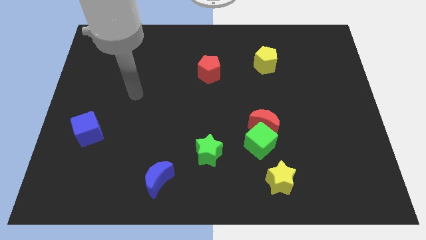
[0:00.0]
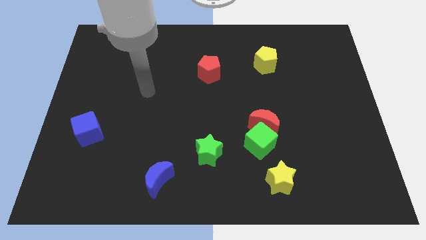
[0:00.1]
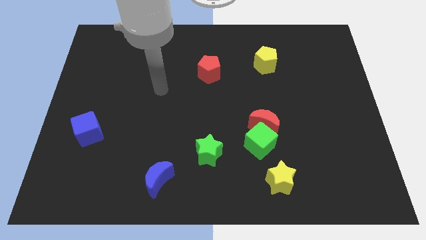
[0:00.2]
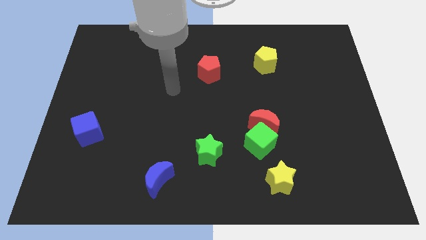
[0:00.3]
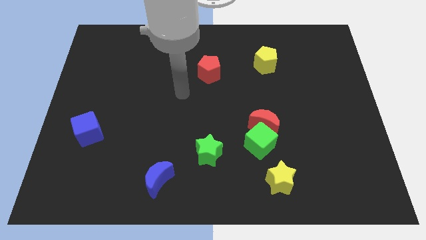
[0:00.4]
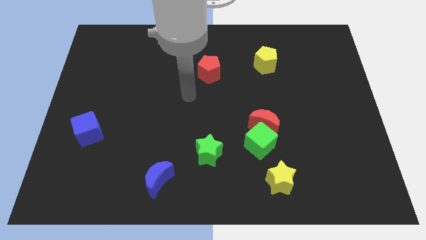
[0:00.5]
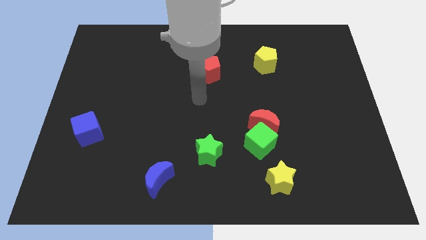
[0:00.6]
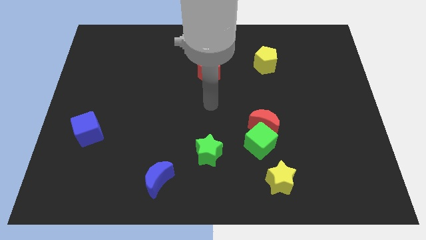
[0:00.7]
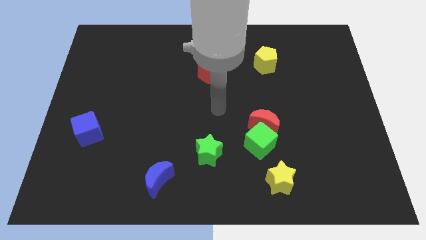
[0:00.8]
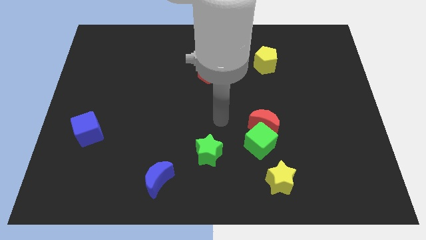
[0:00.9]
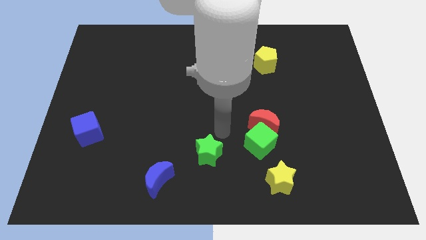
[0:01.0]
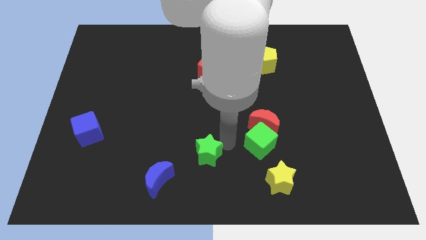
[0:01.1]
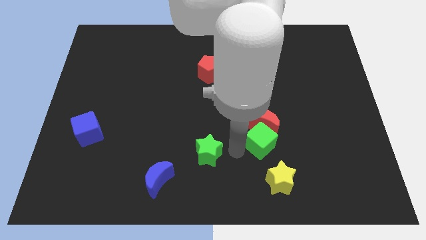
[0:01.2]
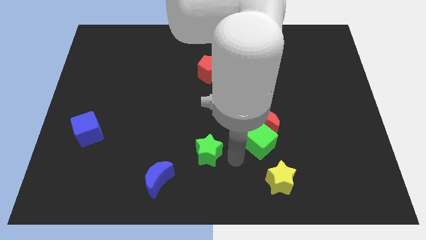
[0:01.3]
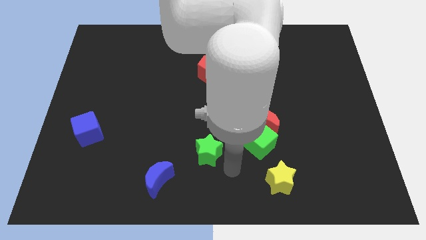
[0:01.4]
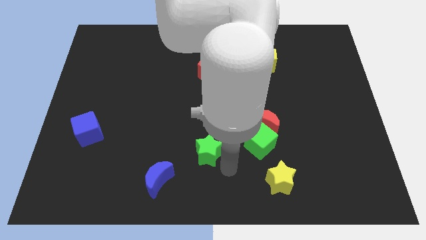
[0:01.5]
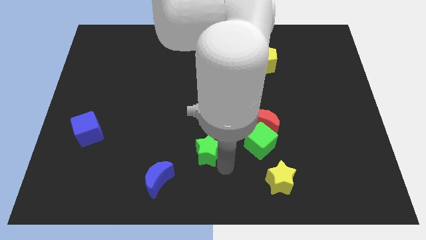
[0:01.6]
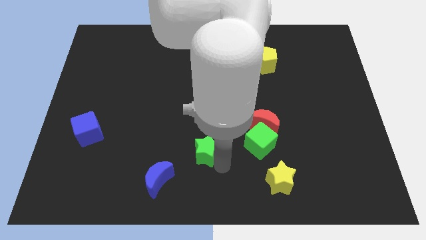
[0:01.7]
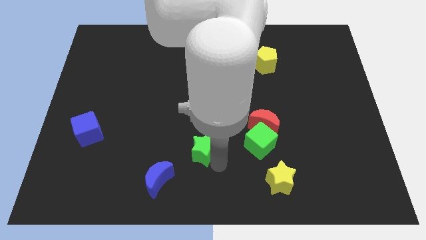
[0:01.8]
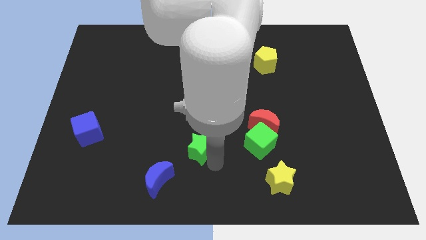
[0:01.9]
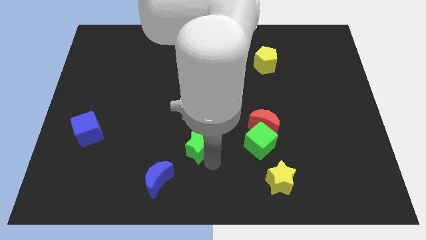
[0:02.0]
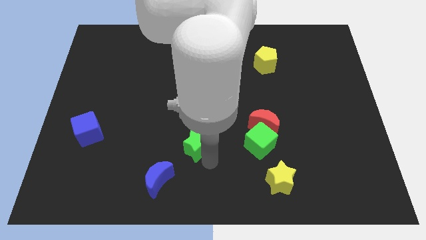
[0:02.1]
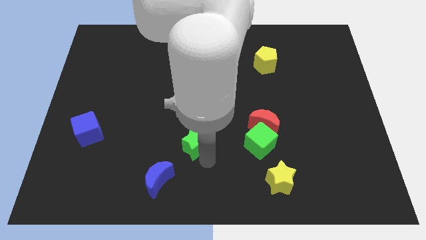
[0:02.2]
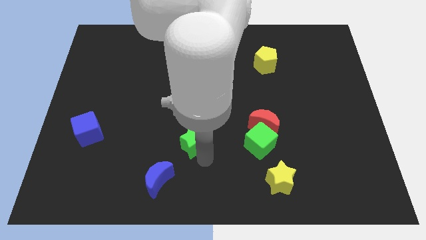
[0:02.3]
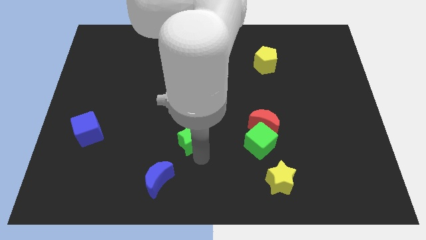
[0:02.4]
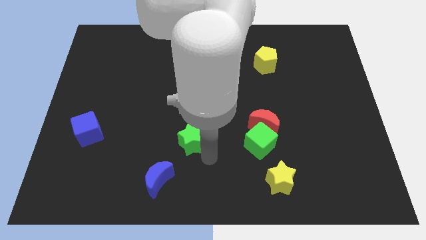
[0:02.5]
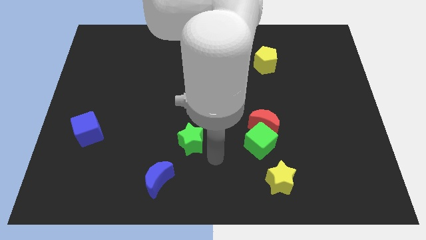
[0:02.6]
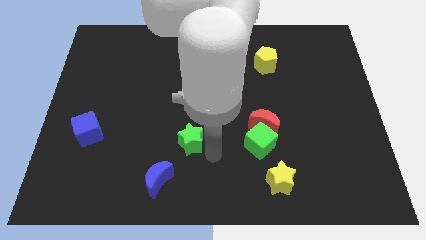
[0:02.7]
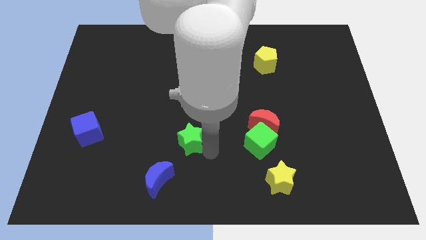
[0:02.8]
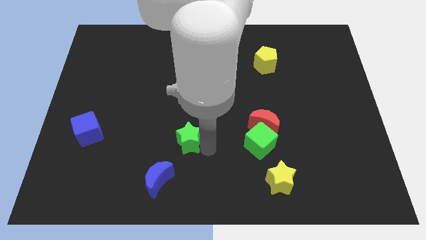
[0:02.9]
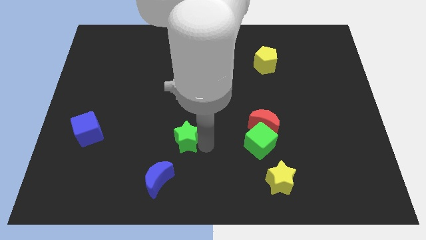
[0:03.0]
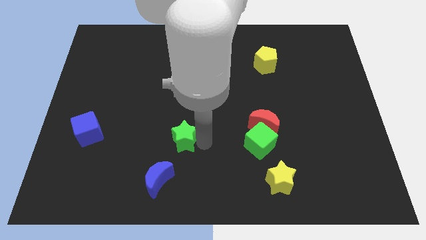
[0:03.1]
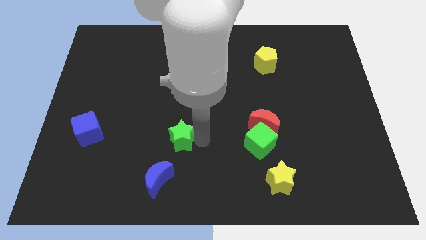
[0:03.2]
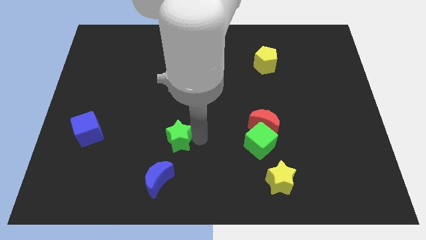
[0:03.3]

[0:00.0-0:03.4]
slide the green star up and then left a bit

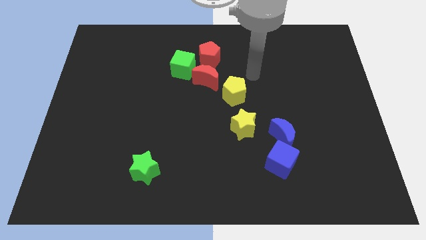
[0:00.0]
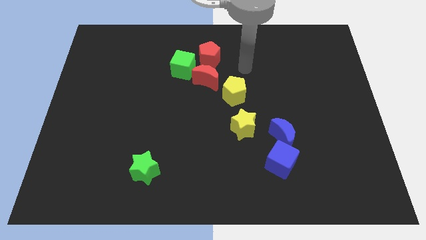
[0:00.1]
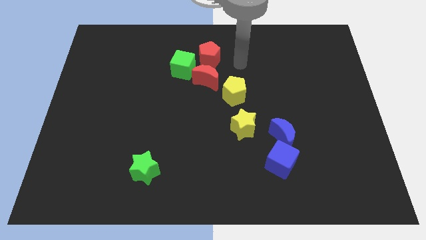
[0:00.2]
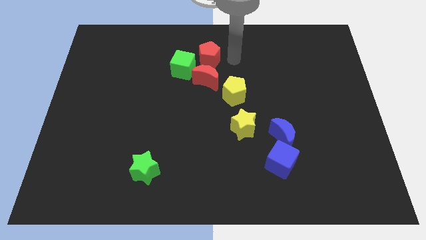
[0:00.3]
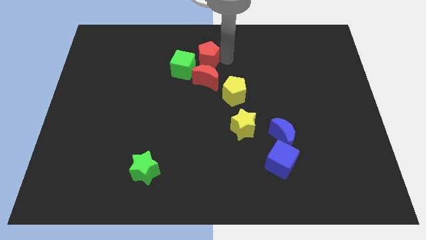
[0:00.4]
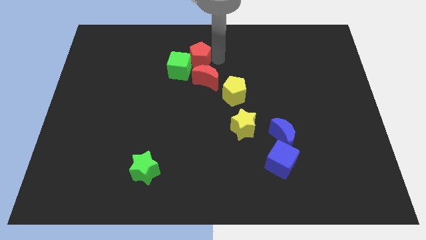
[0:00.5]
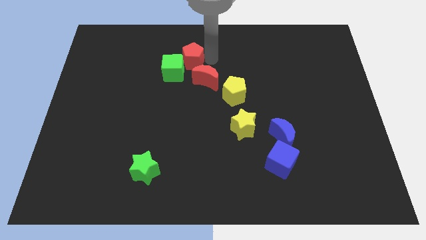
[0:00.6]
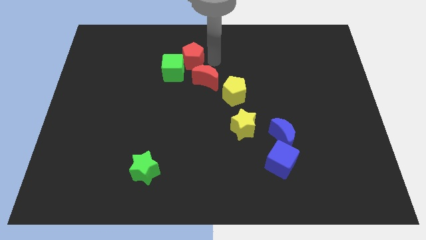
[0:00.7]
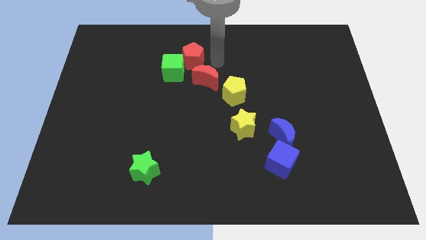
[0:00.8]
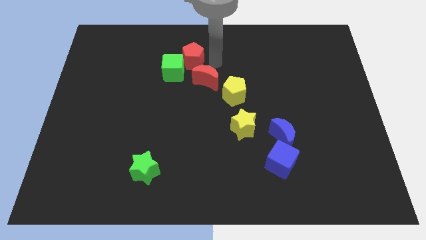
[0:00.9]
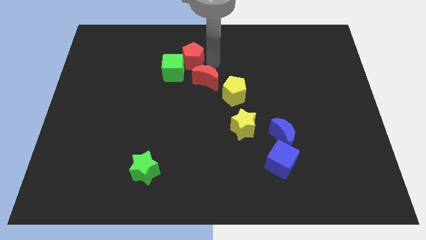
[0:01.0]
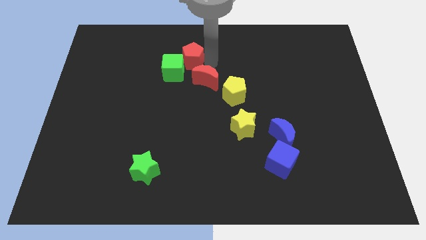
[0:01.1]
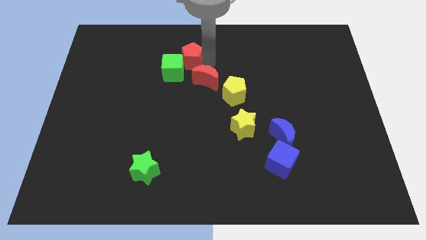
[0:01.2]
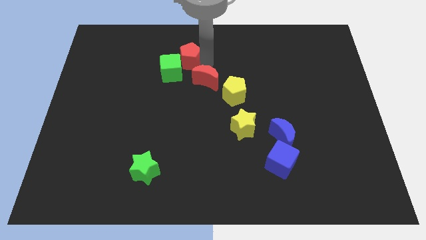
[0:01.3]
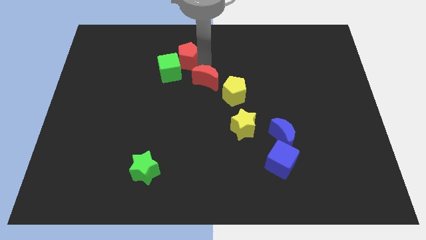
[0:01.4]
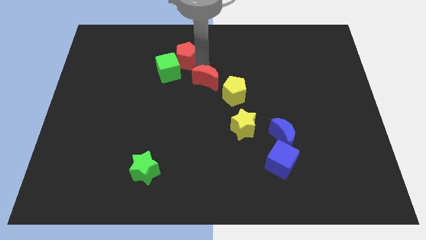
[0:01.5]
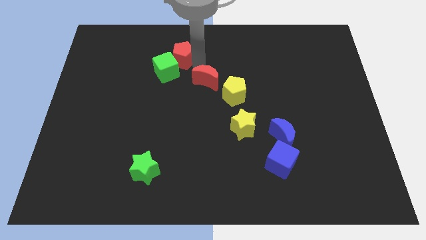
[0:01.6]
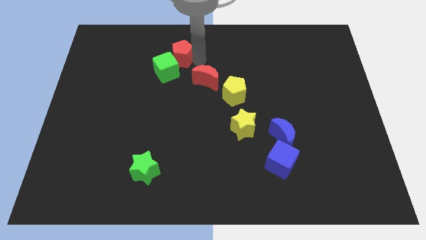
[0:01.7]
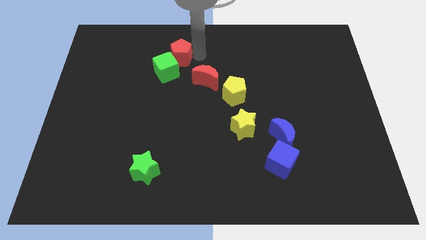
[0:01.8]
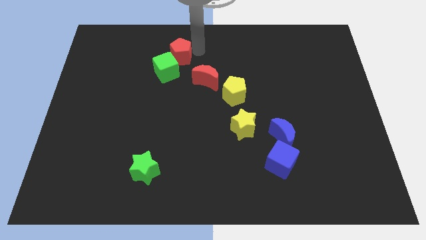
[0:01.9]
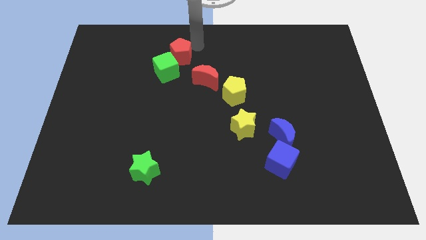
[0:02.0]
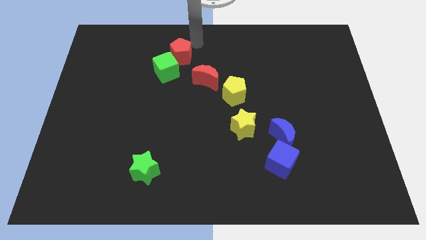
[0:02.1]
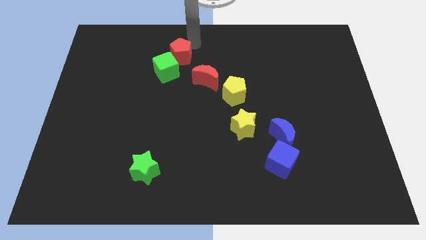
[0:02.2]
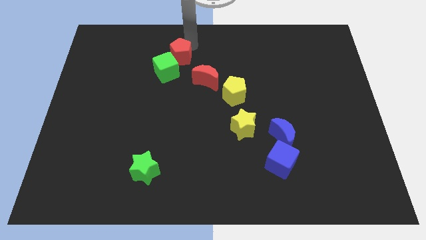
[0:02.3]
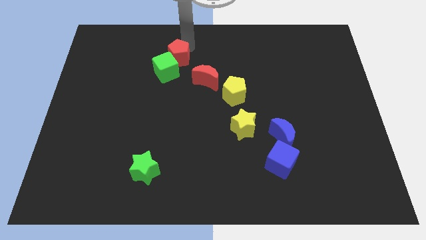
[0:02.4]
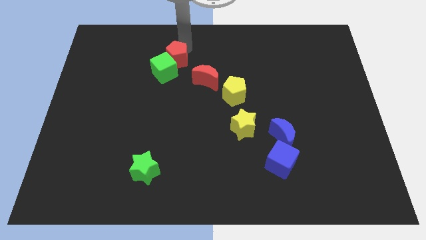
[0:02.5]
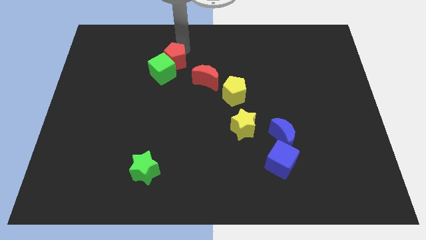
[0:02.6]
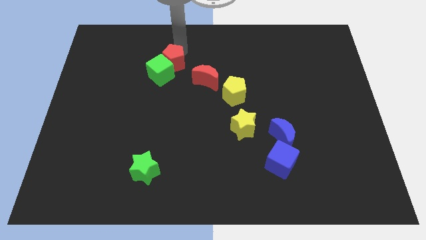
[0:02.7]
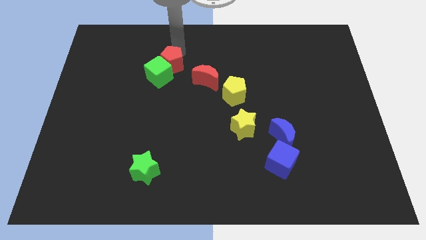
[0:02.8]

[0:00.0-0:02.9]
push the red pentagon diagonally down and to the left slightly

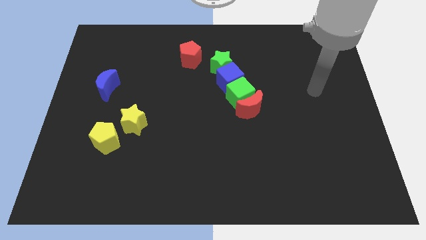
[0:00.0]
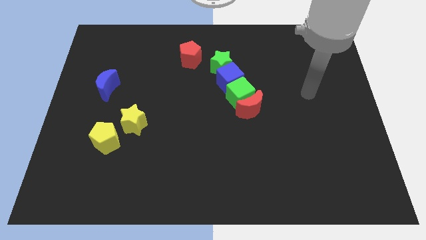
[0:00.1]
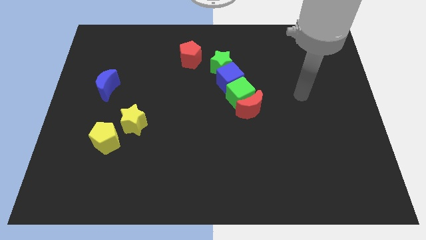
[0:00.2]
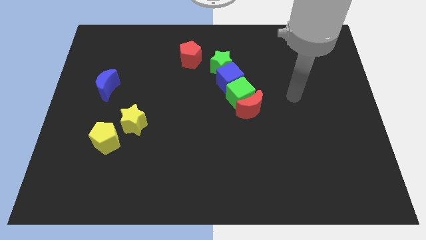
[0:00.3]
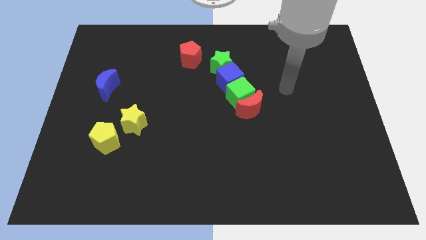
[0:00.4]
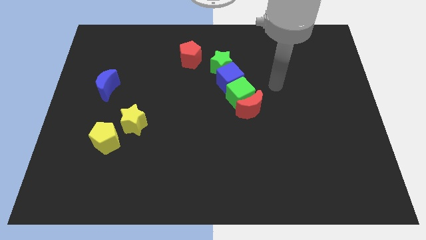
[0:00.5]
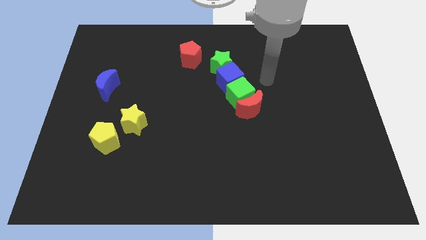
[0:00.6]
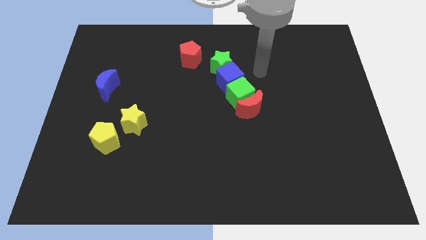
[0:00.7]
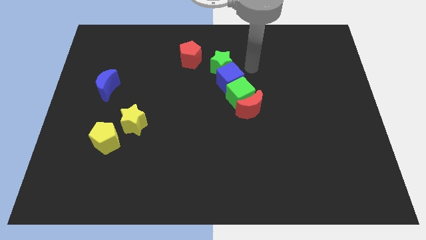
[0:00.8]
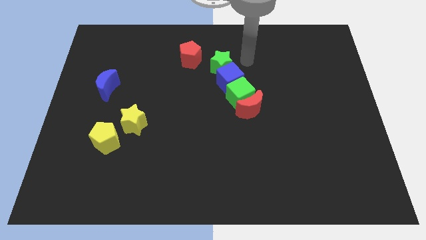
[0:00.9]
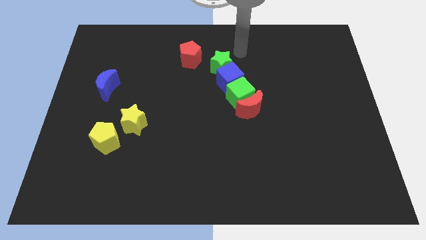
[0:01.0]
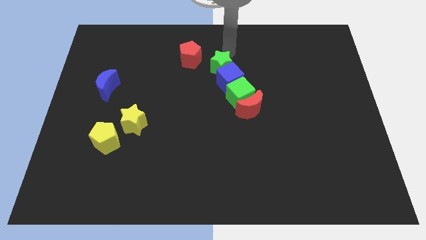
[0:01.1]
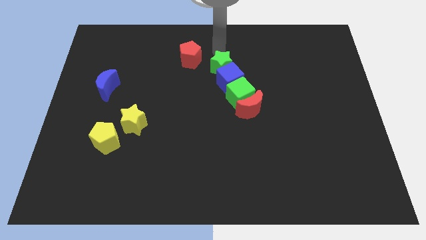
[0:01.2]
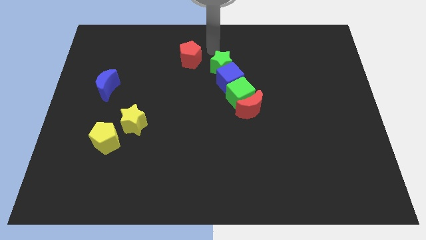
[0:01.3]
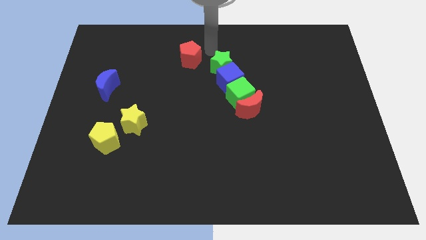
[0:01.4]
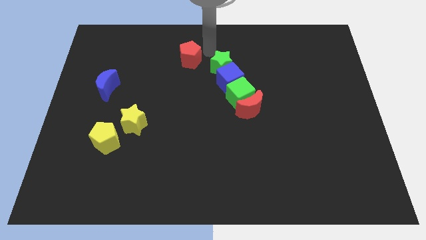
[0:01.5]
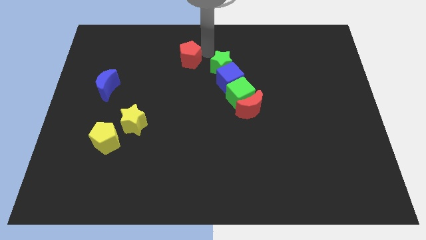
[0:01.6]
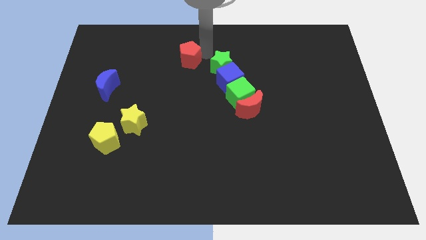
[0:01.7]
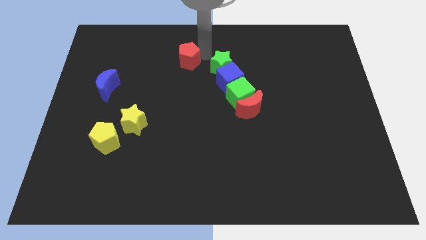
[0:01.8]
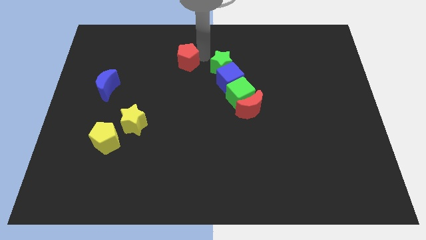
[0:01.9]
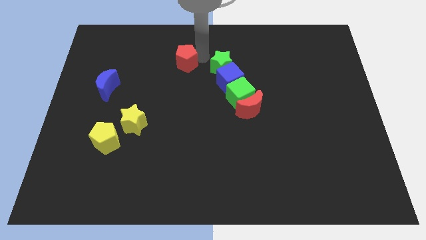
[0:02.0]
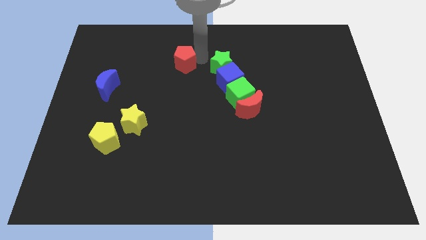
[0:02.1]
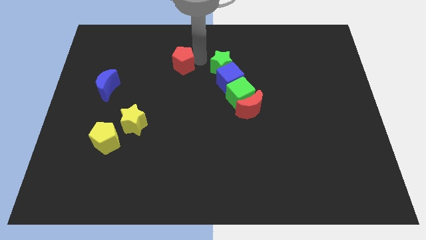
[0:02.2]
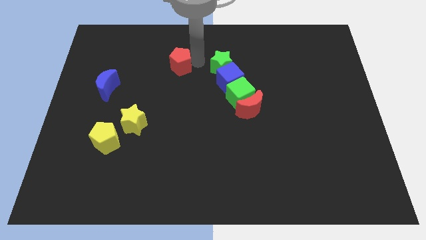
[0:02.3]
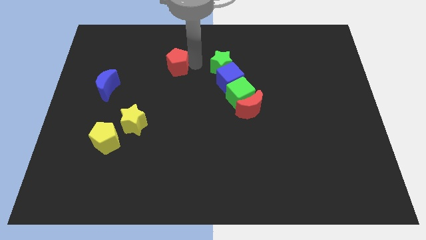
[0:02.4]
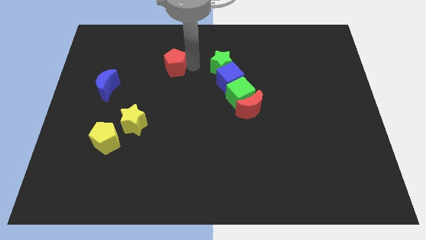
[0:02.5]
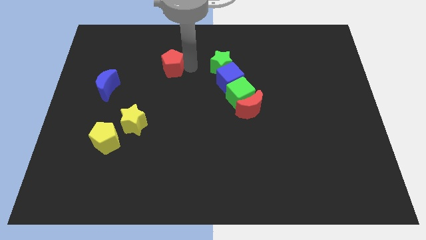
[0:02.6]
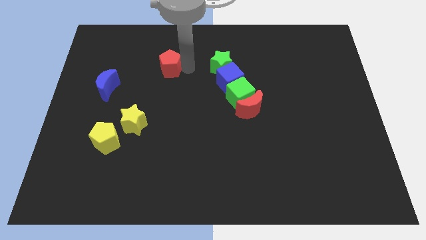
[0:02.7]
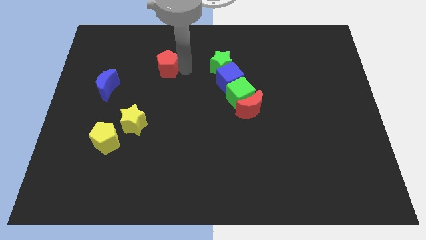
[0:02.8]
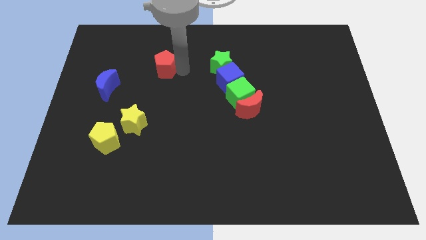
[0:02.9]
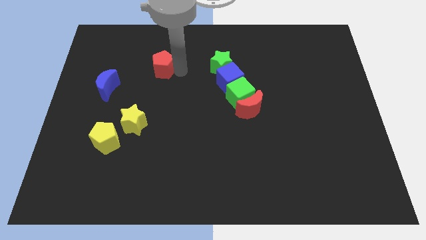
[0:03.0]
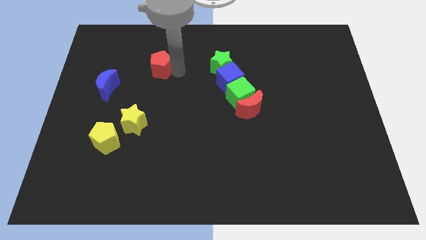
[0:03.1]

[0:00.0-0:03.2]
slide the red pentagon somewhat to the left
